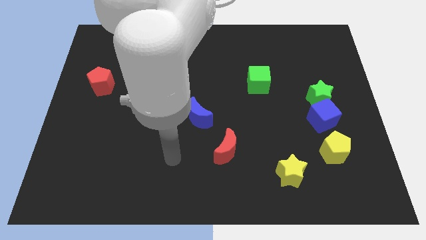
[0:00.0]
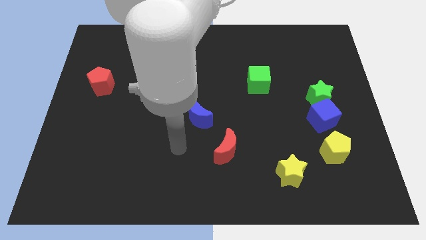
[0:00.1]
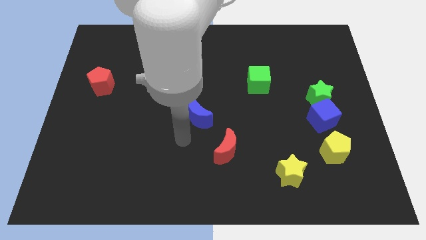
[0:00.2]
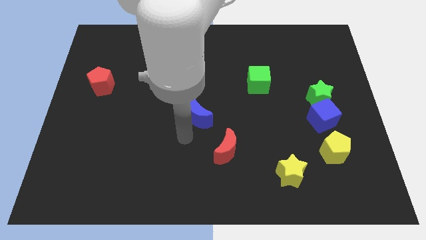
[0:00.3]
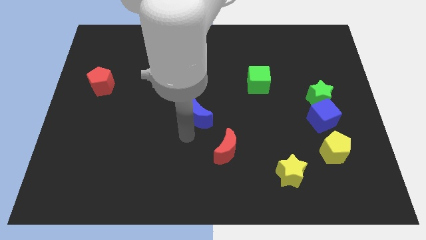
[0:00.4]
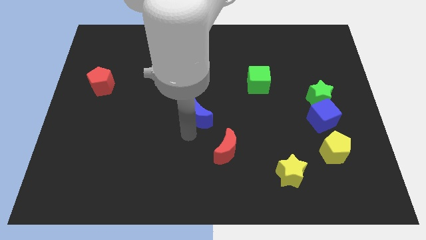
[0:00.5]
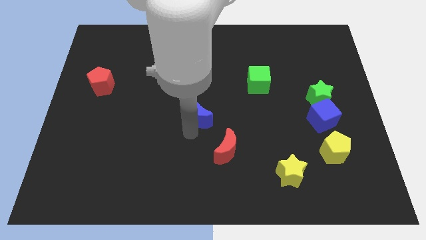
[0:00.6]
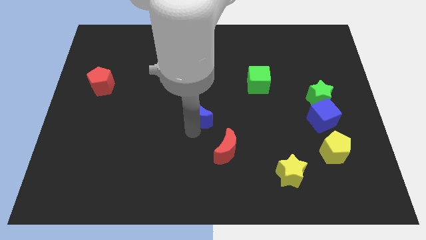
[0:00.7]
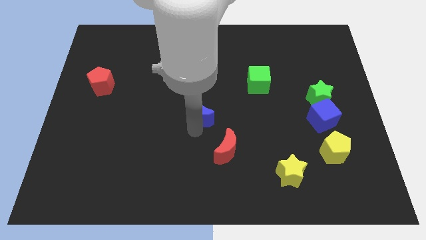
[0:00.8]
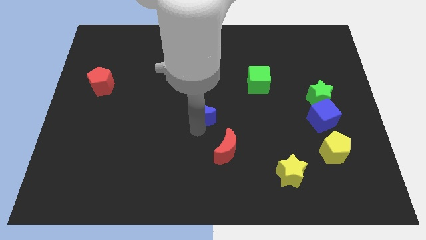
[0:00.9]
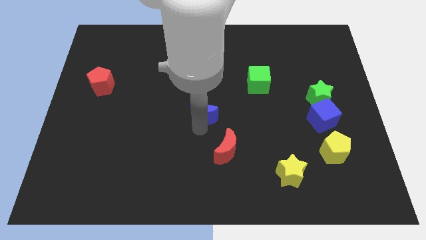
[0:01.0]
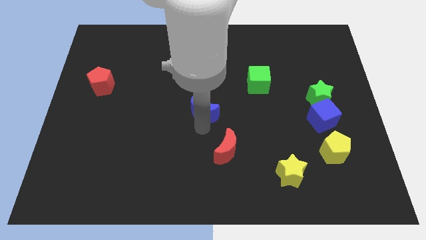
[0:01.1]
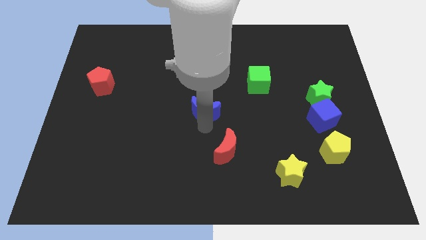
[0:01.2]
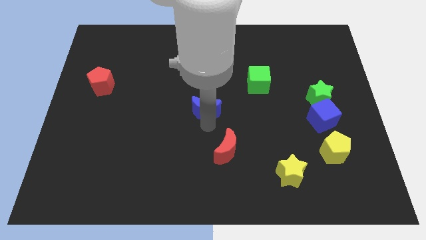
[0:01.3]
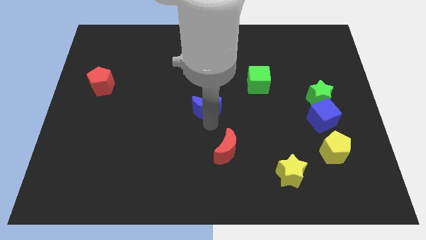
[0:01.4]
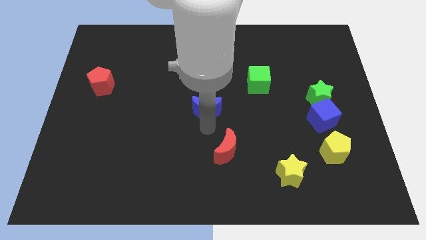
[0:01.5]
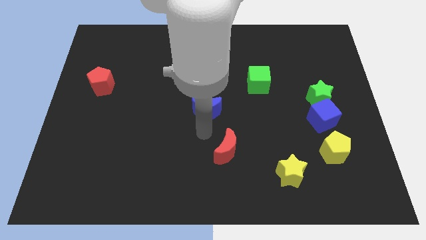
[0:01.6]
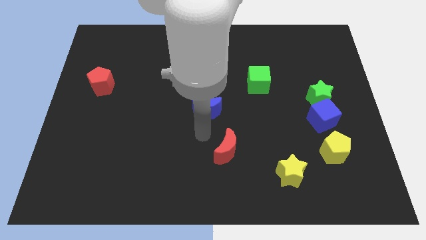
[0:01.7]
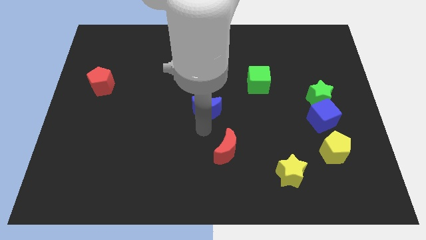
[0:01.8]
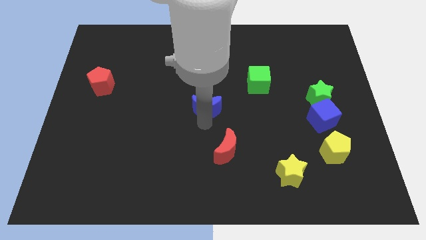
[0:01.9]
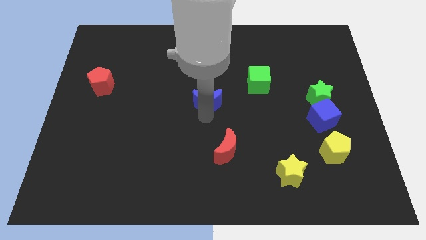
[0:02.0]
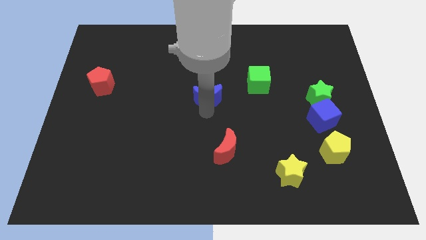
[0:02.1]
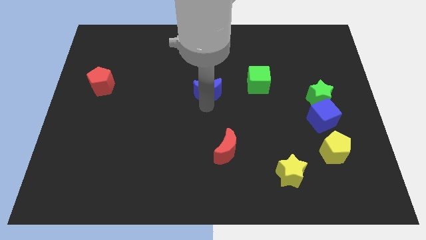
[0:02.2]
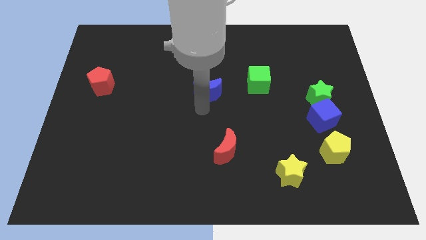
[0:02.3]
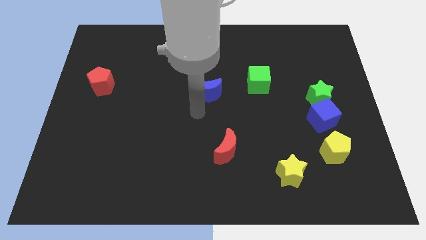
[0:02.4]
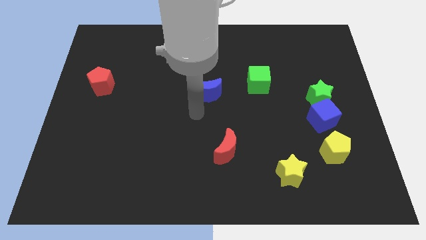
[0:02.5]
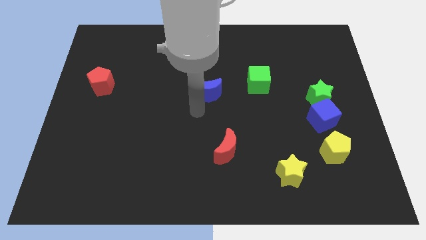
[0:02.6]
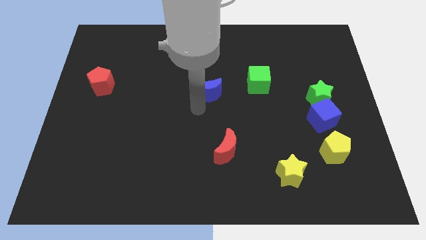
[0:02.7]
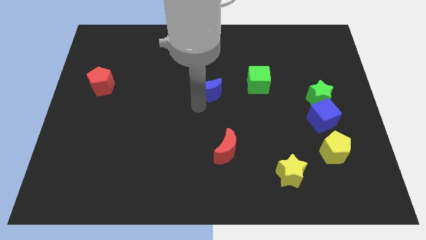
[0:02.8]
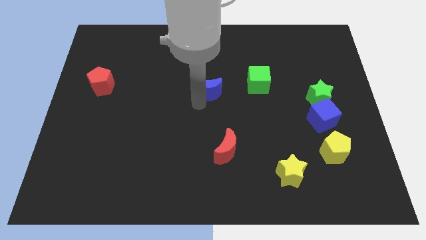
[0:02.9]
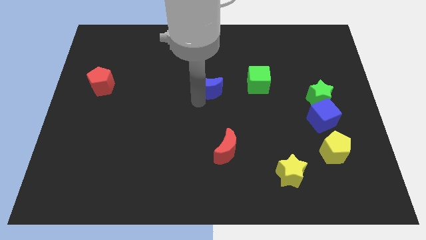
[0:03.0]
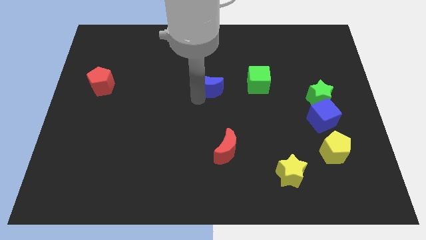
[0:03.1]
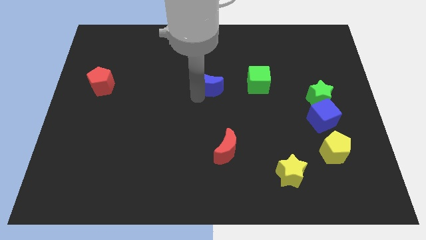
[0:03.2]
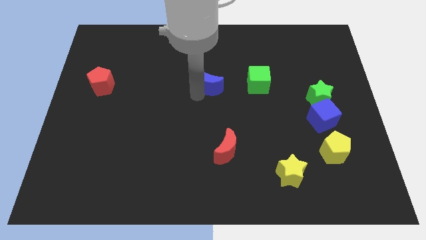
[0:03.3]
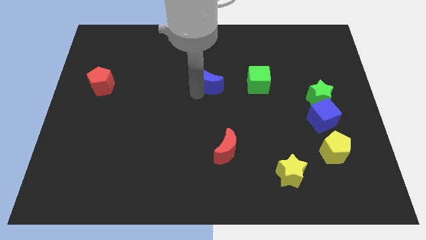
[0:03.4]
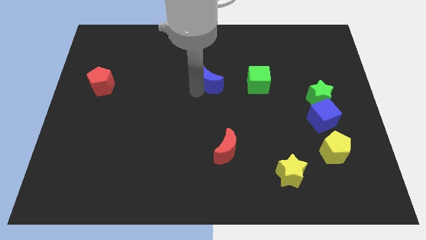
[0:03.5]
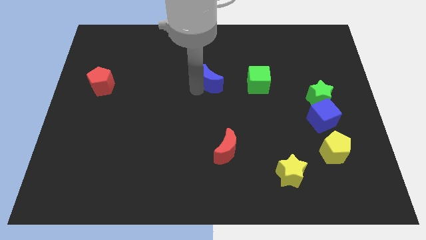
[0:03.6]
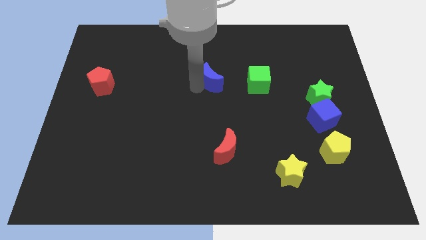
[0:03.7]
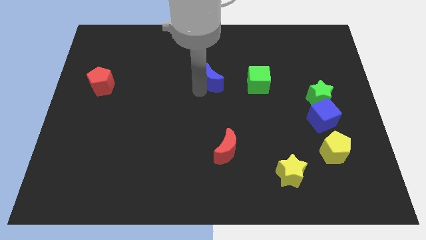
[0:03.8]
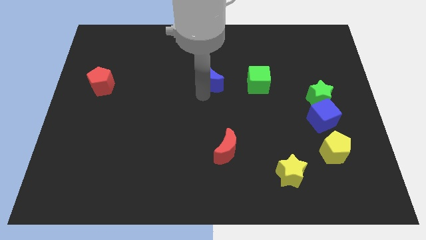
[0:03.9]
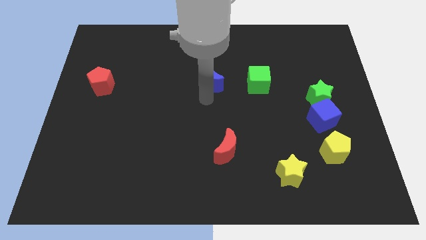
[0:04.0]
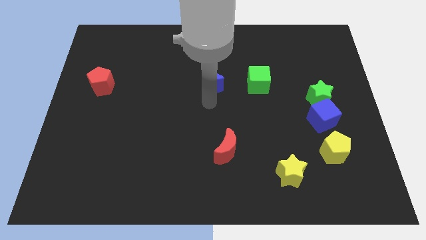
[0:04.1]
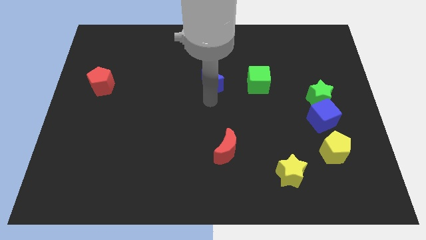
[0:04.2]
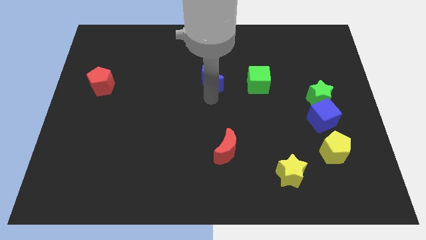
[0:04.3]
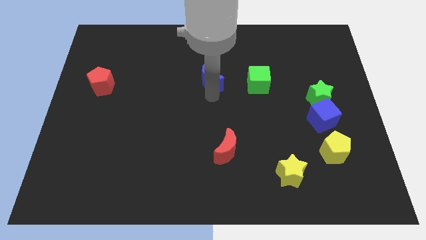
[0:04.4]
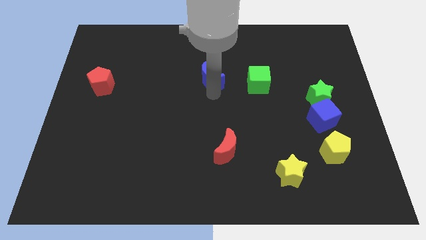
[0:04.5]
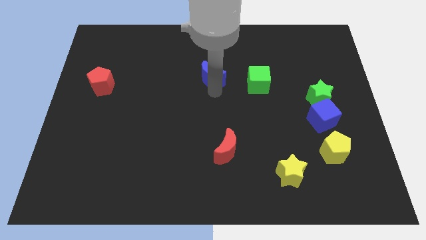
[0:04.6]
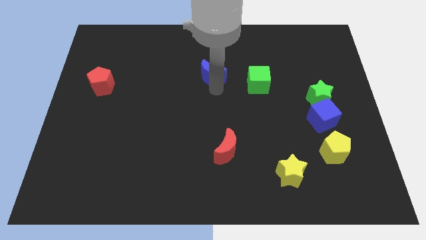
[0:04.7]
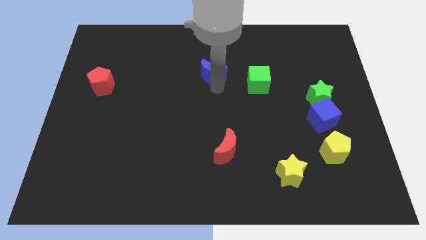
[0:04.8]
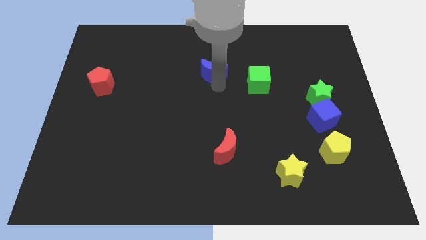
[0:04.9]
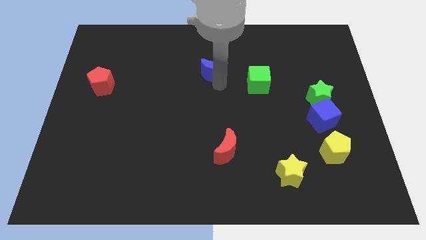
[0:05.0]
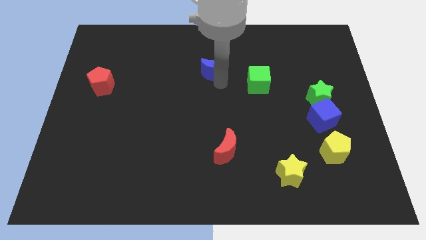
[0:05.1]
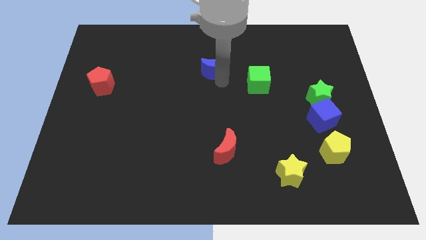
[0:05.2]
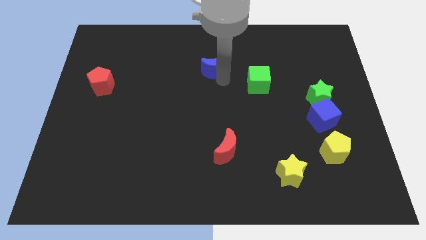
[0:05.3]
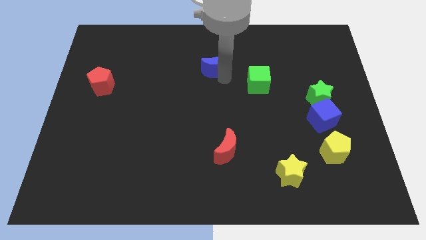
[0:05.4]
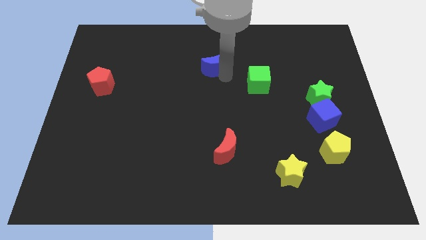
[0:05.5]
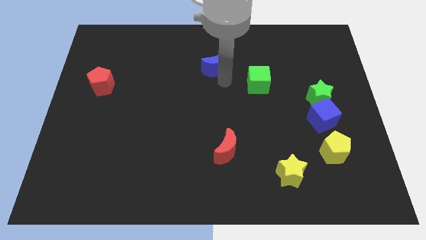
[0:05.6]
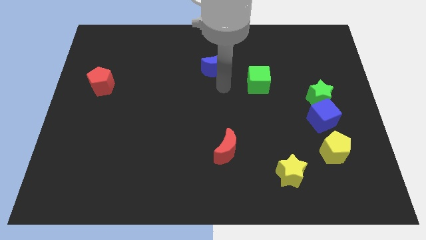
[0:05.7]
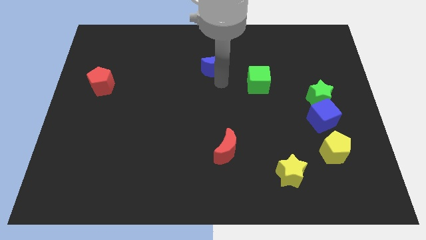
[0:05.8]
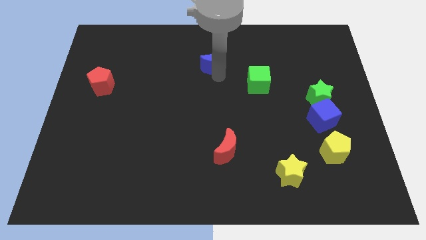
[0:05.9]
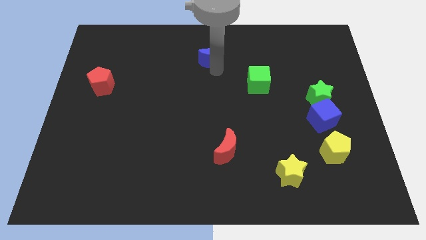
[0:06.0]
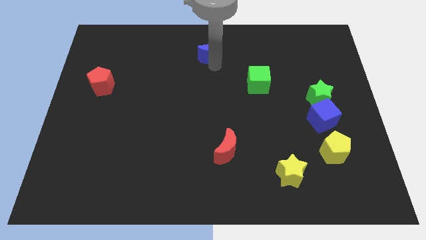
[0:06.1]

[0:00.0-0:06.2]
push the blue moon to the top side

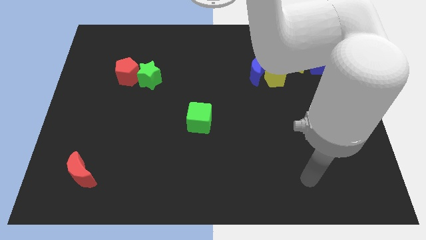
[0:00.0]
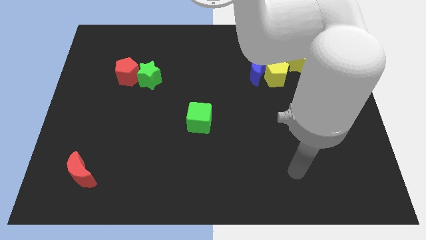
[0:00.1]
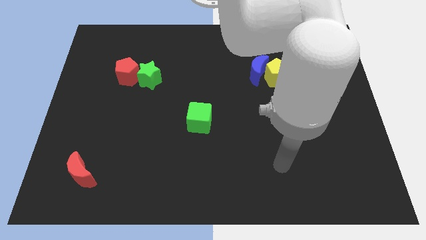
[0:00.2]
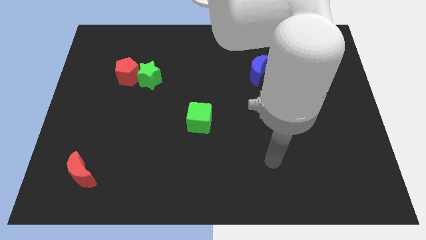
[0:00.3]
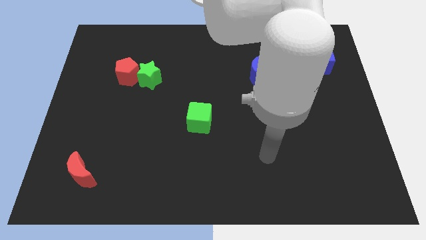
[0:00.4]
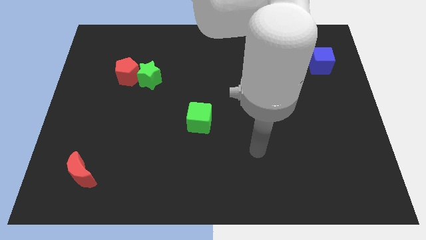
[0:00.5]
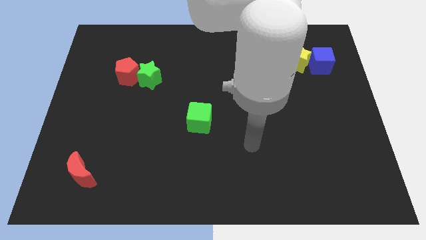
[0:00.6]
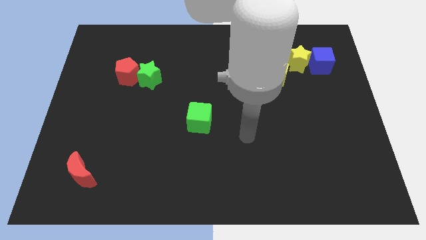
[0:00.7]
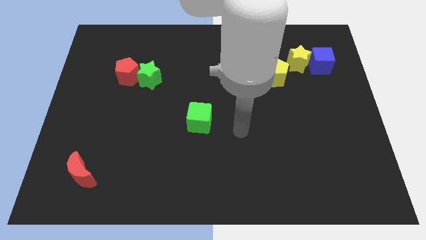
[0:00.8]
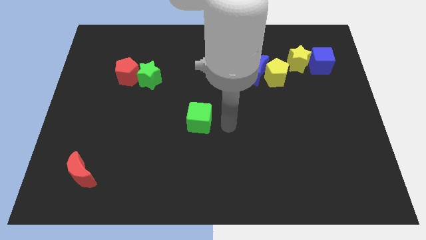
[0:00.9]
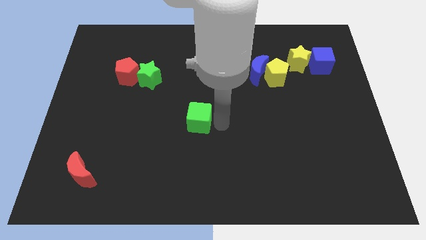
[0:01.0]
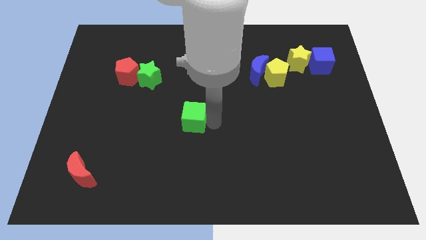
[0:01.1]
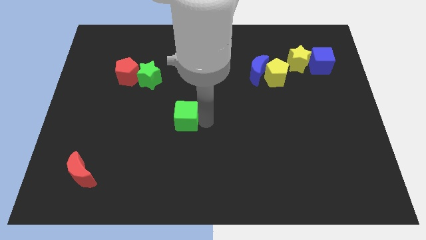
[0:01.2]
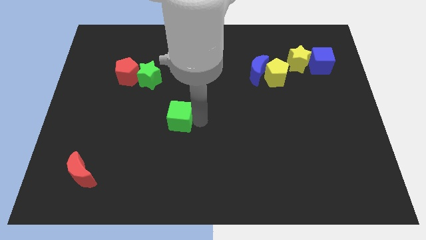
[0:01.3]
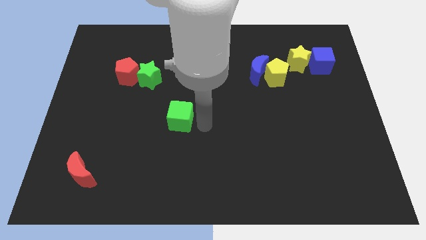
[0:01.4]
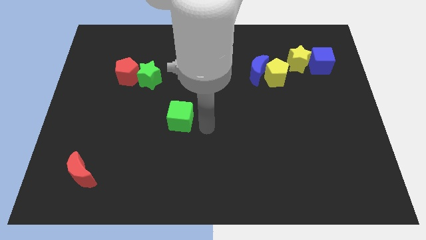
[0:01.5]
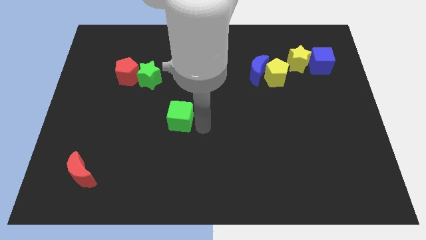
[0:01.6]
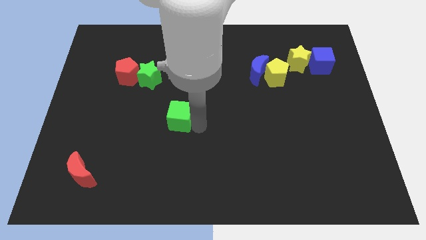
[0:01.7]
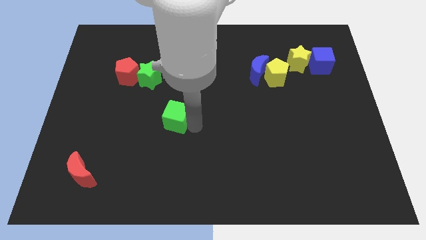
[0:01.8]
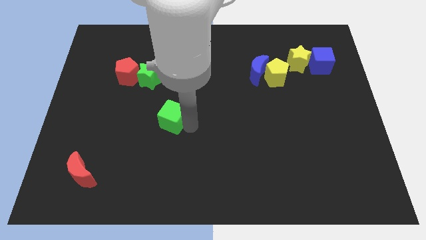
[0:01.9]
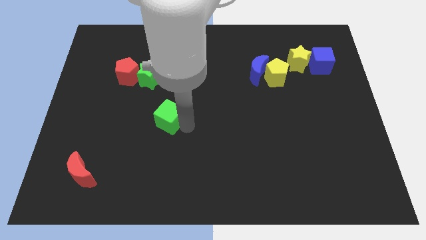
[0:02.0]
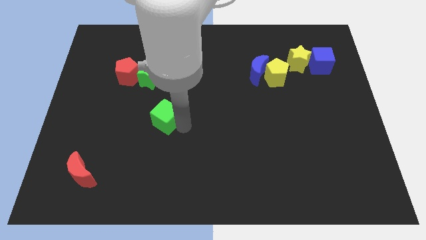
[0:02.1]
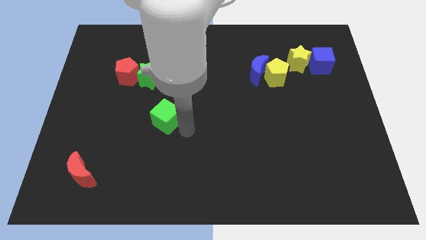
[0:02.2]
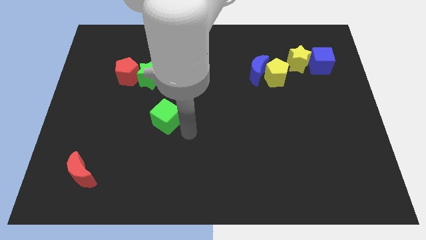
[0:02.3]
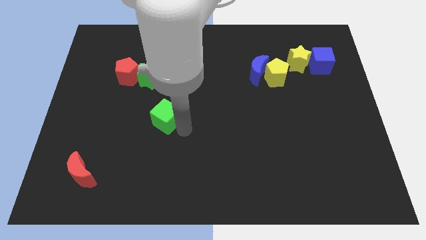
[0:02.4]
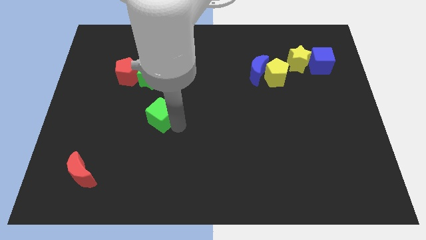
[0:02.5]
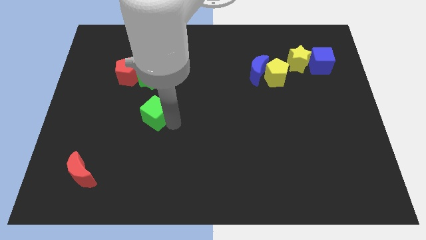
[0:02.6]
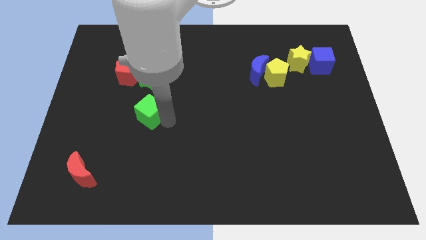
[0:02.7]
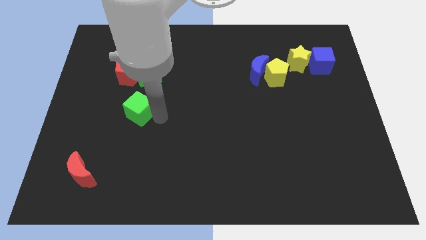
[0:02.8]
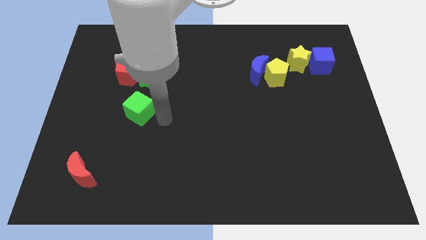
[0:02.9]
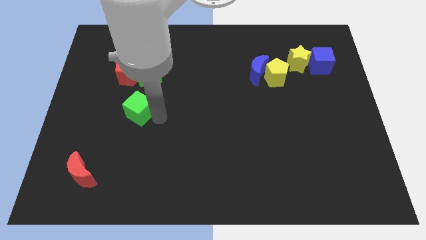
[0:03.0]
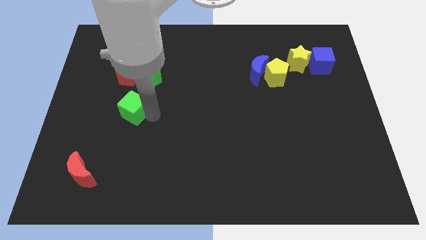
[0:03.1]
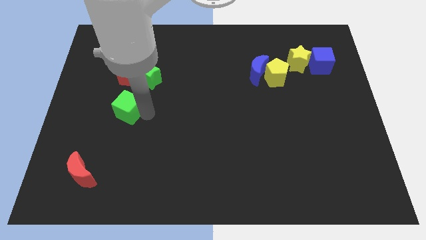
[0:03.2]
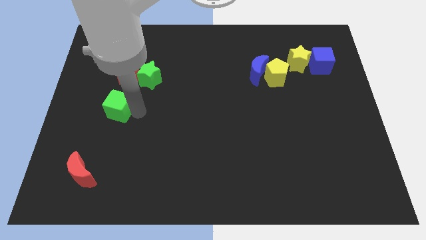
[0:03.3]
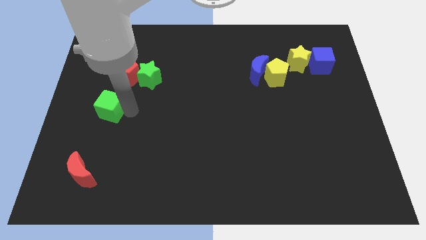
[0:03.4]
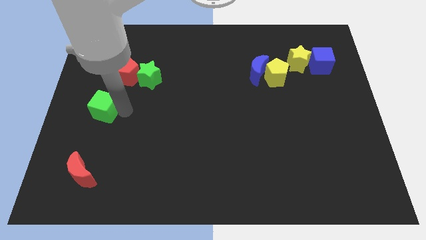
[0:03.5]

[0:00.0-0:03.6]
move the green cube to the center left
